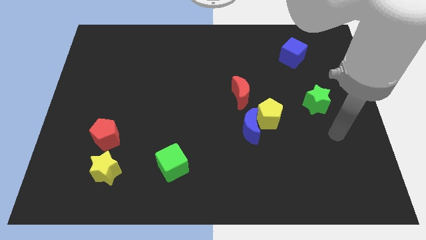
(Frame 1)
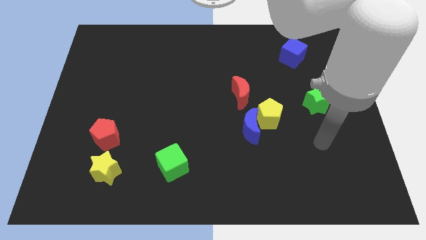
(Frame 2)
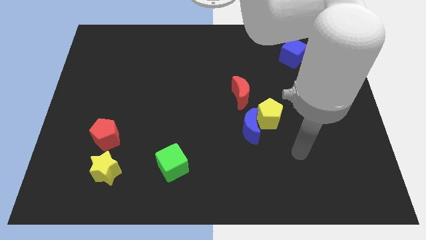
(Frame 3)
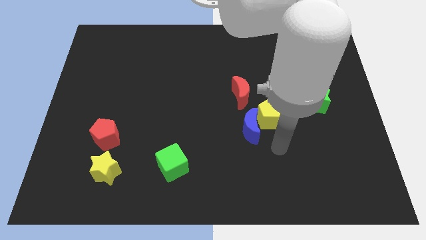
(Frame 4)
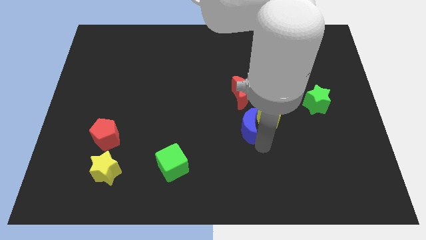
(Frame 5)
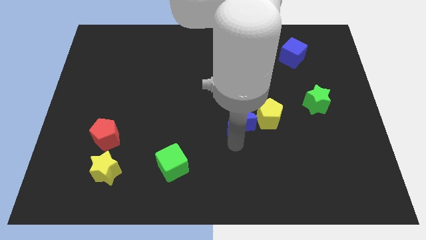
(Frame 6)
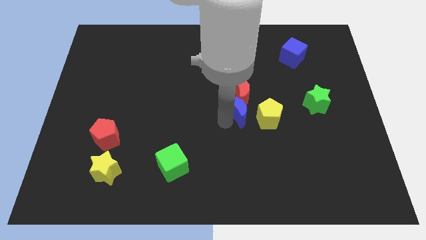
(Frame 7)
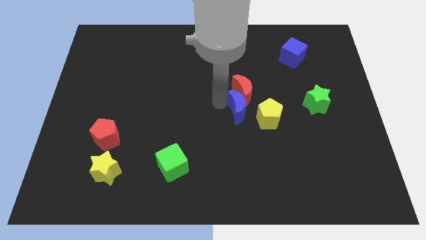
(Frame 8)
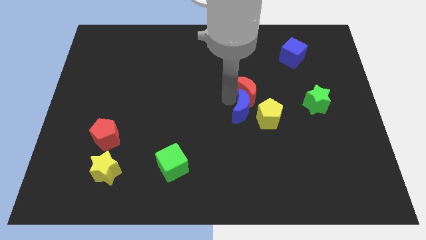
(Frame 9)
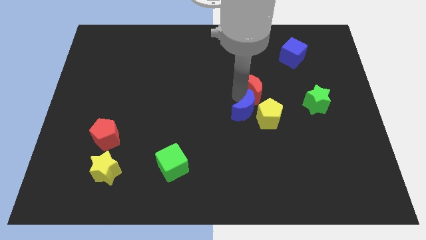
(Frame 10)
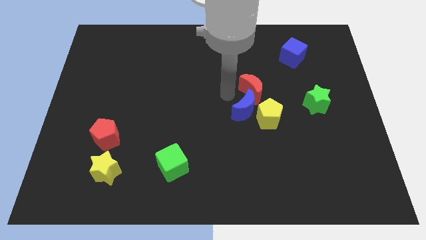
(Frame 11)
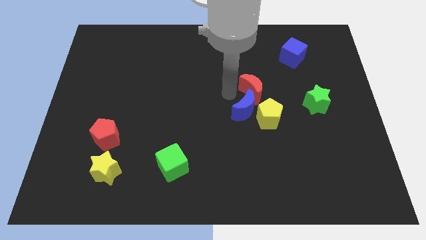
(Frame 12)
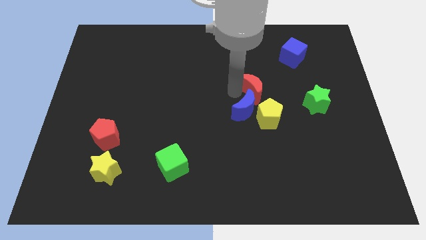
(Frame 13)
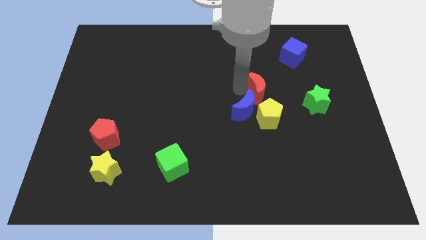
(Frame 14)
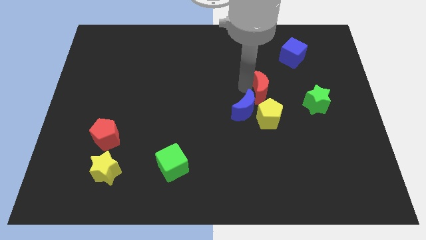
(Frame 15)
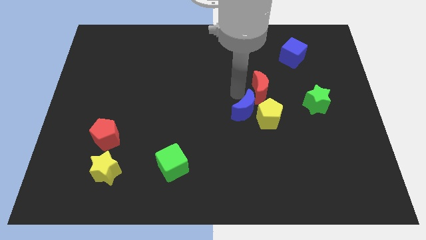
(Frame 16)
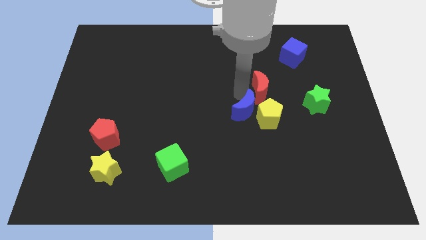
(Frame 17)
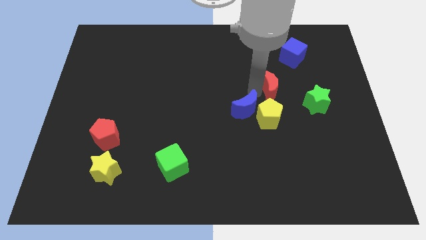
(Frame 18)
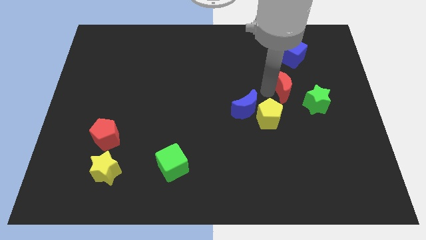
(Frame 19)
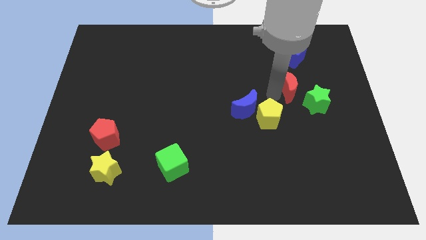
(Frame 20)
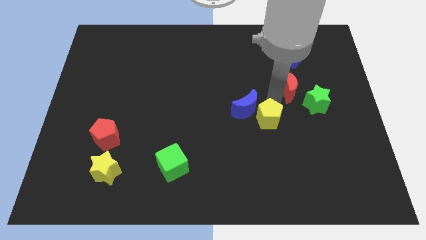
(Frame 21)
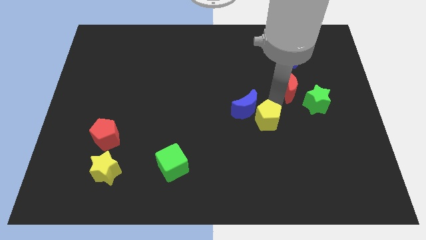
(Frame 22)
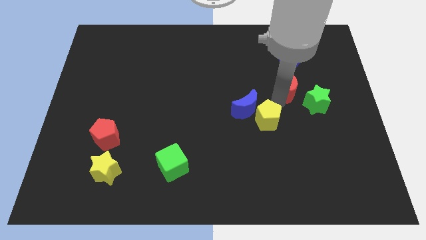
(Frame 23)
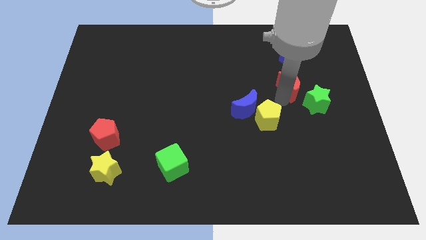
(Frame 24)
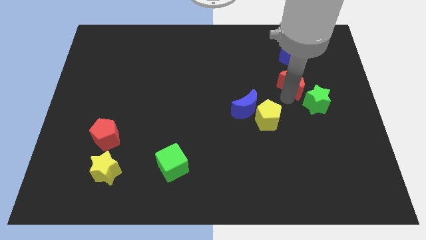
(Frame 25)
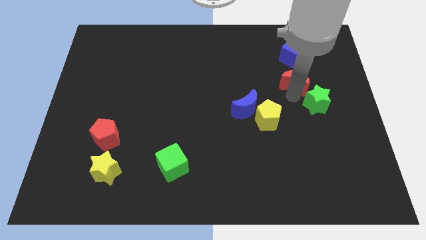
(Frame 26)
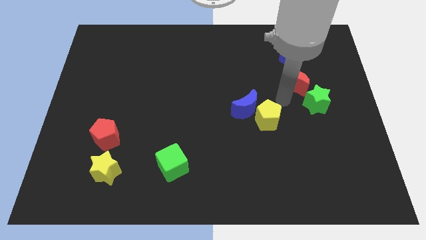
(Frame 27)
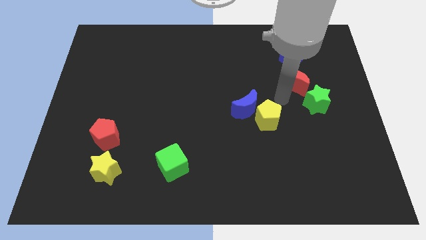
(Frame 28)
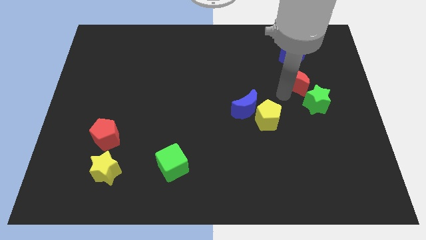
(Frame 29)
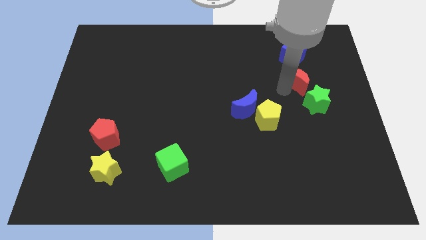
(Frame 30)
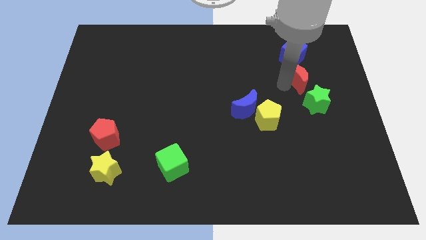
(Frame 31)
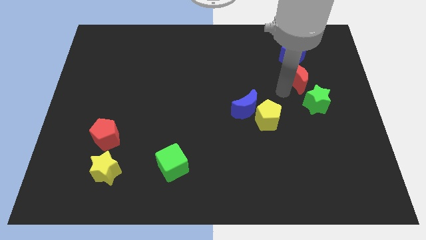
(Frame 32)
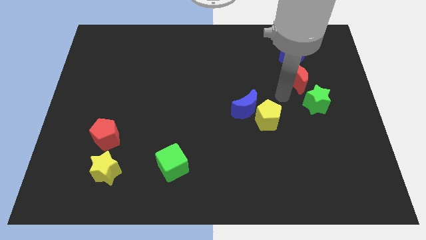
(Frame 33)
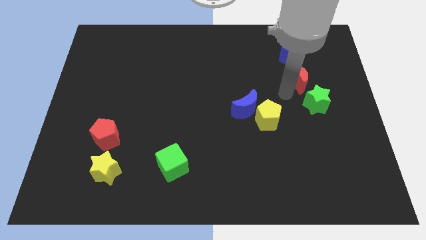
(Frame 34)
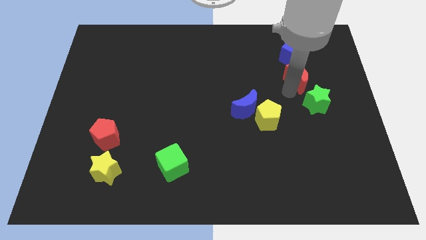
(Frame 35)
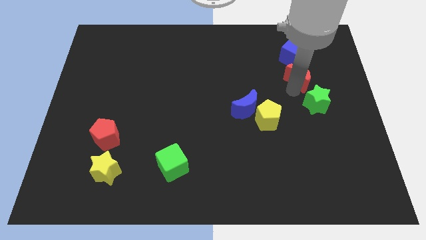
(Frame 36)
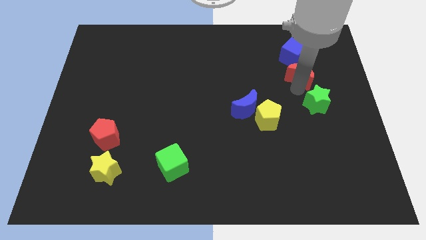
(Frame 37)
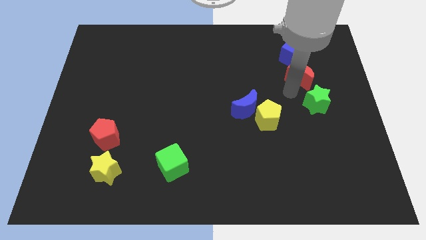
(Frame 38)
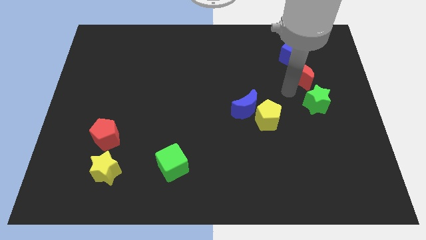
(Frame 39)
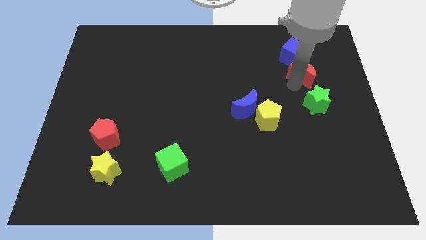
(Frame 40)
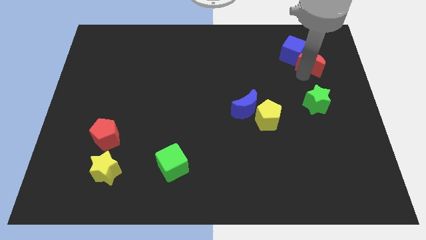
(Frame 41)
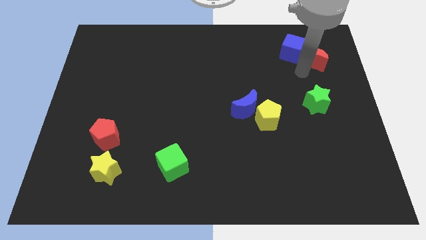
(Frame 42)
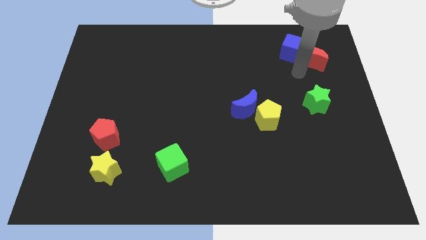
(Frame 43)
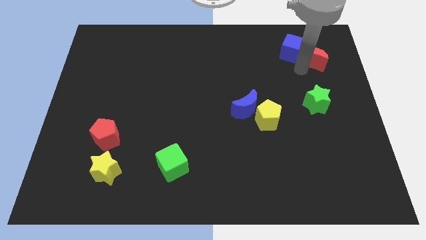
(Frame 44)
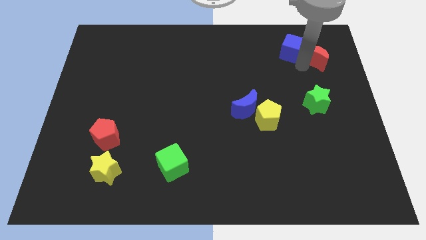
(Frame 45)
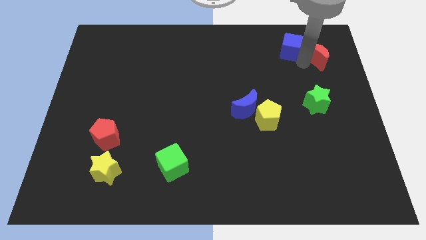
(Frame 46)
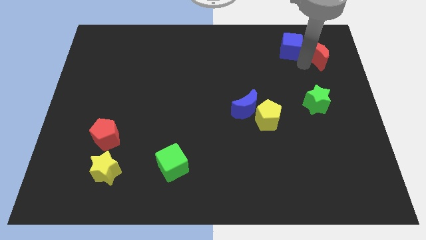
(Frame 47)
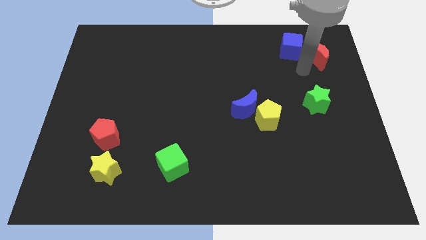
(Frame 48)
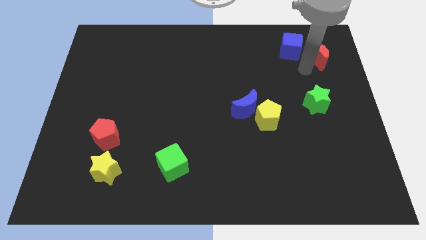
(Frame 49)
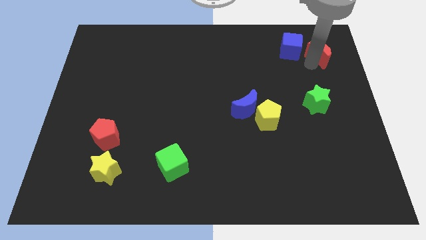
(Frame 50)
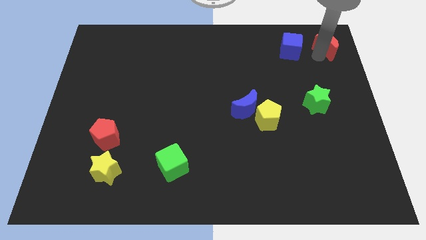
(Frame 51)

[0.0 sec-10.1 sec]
put the red moon to the upper right corner

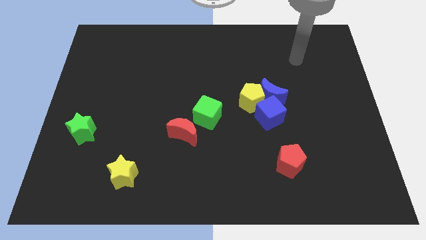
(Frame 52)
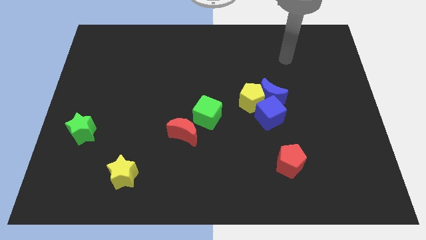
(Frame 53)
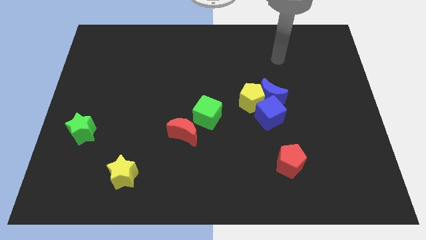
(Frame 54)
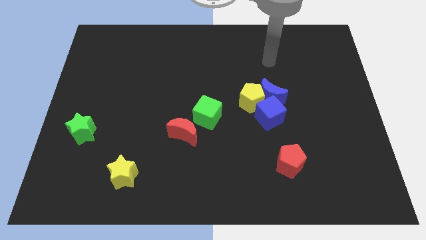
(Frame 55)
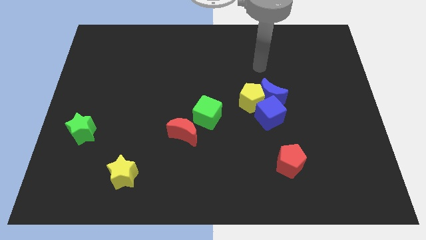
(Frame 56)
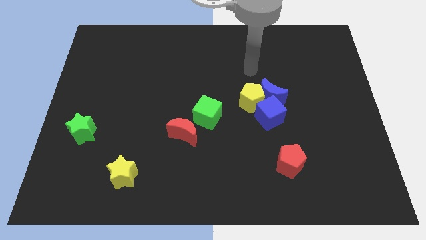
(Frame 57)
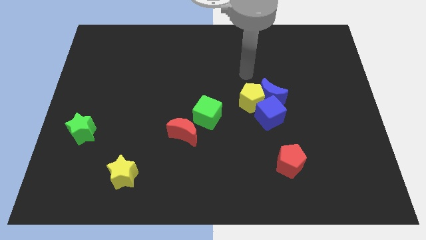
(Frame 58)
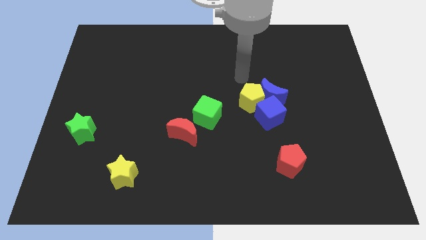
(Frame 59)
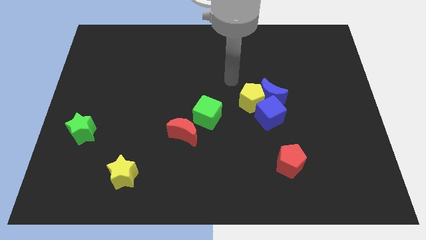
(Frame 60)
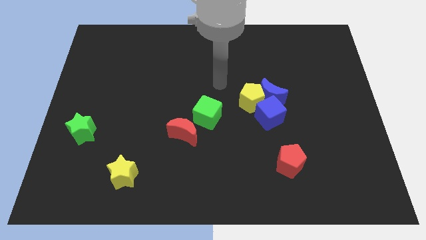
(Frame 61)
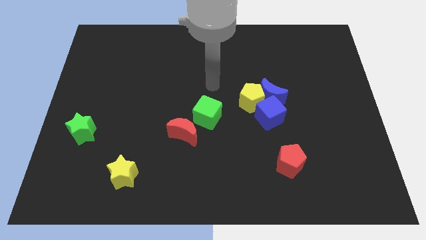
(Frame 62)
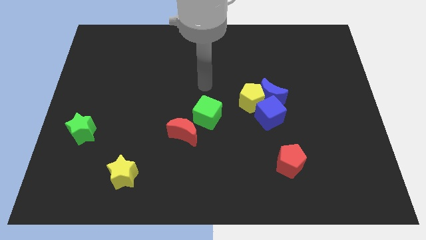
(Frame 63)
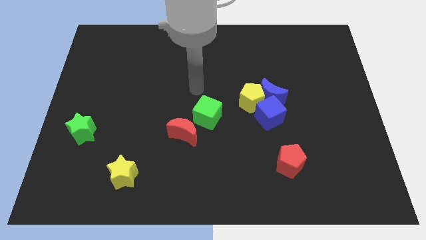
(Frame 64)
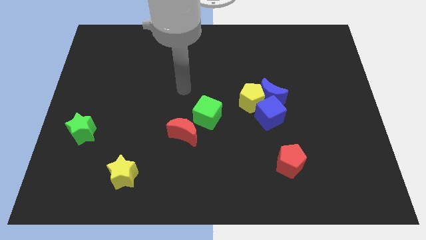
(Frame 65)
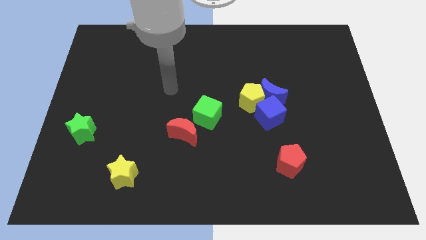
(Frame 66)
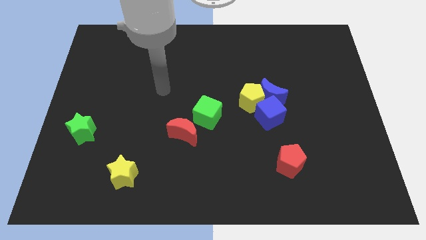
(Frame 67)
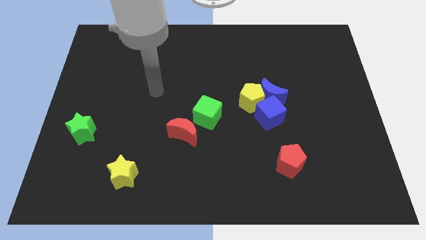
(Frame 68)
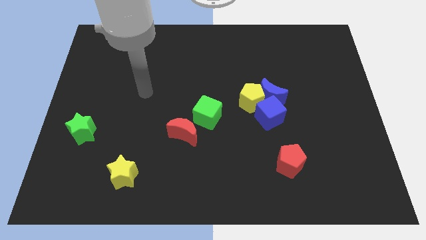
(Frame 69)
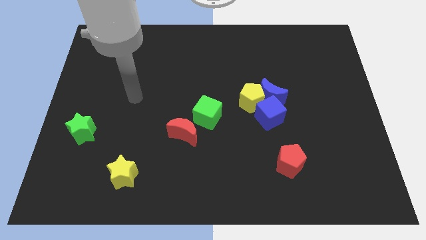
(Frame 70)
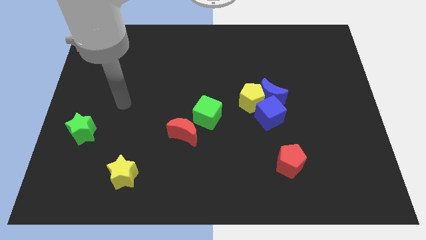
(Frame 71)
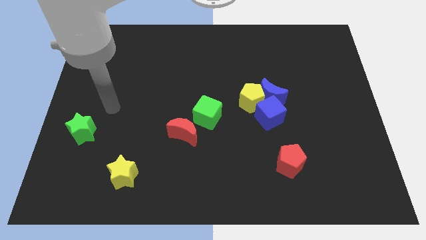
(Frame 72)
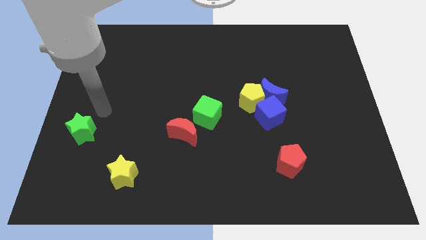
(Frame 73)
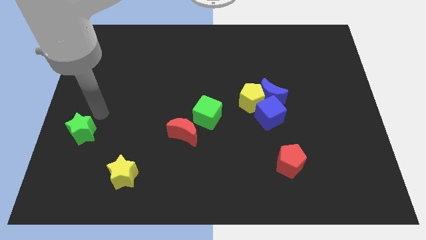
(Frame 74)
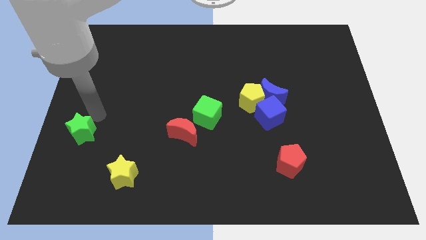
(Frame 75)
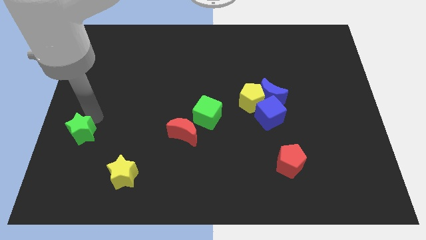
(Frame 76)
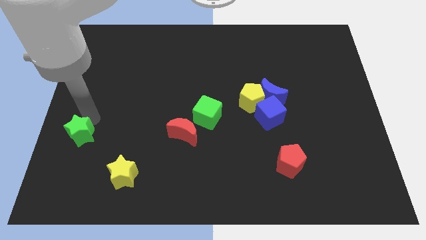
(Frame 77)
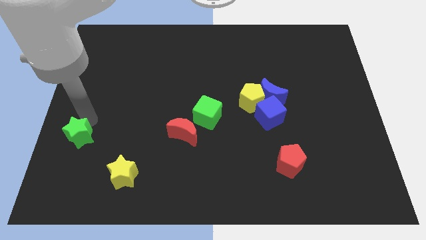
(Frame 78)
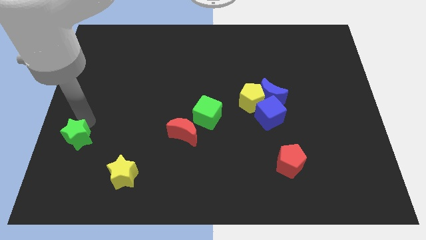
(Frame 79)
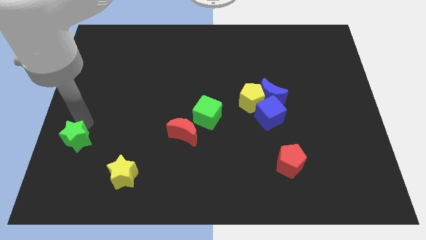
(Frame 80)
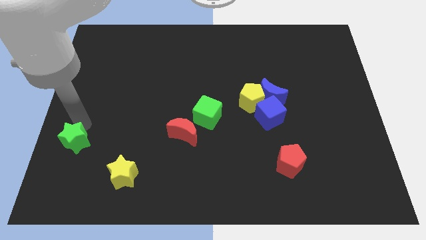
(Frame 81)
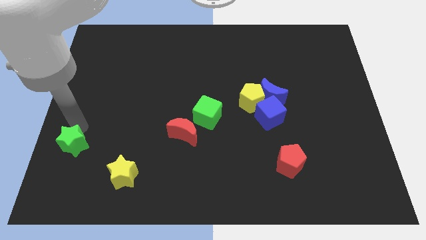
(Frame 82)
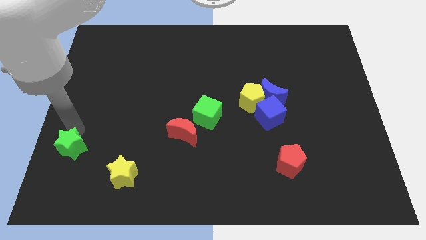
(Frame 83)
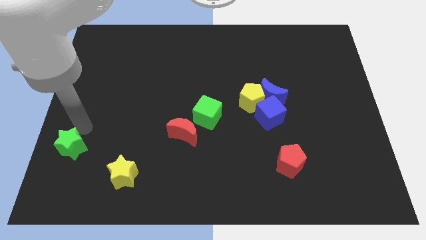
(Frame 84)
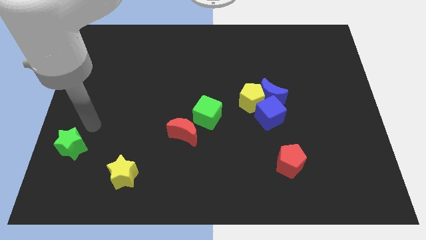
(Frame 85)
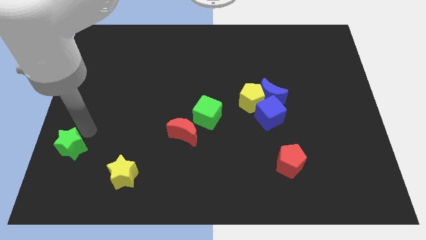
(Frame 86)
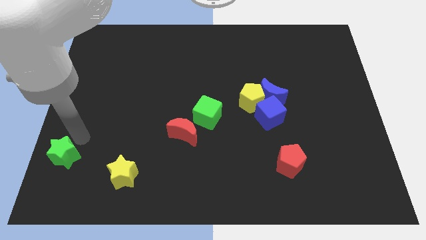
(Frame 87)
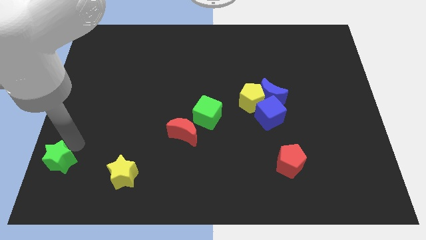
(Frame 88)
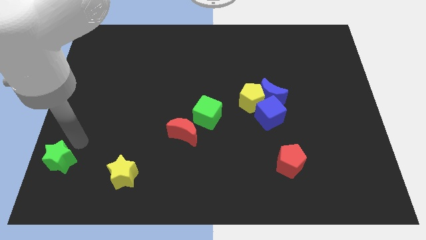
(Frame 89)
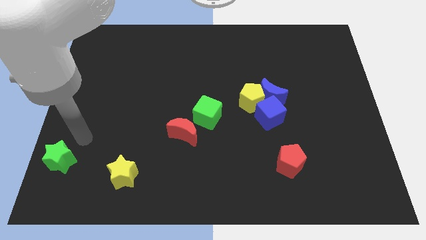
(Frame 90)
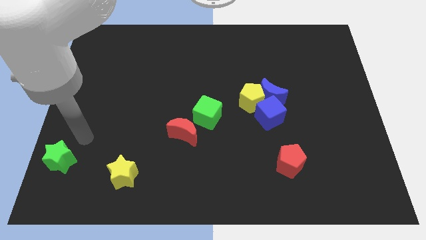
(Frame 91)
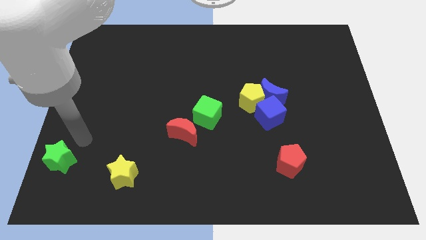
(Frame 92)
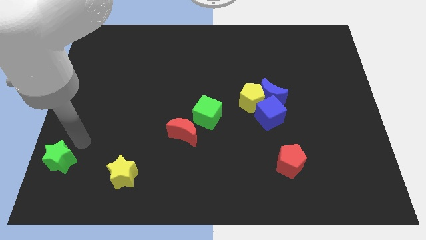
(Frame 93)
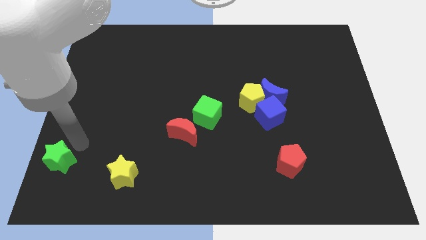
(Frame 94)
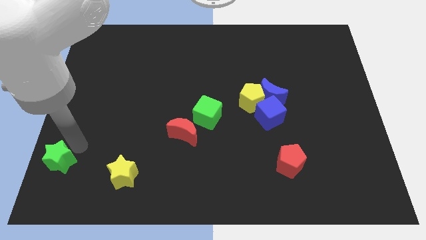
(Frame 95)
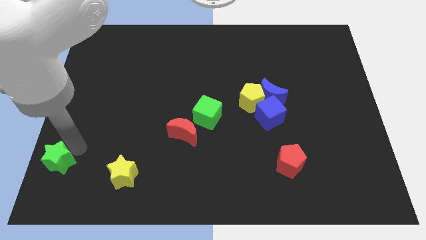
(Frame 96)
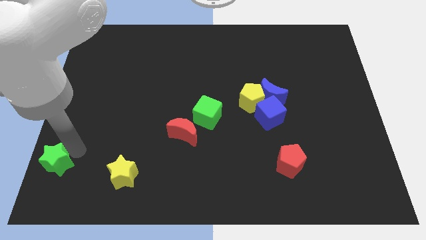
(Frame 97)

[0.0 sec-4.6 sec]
push the green star to the bottom left of the board
